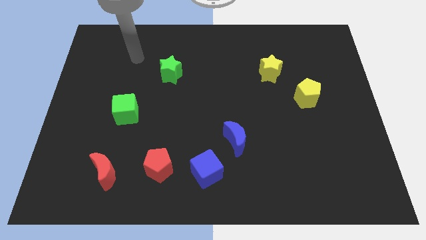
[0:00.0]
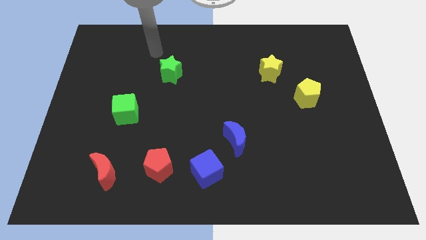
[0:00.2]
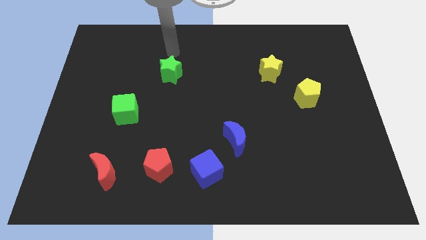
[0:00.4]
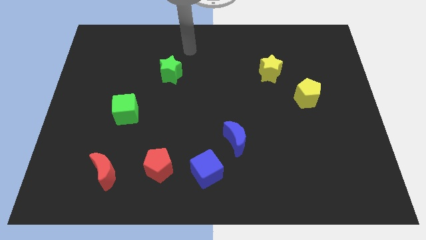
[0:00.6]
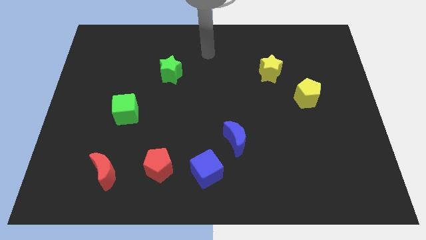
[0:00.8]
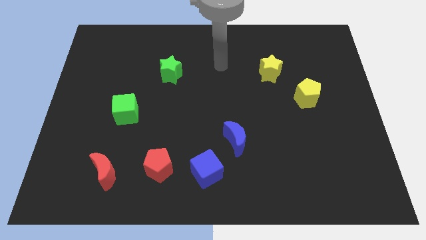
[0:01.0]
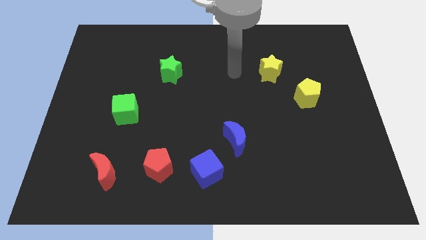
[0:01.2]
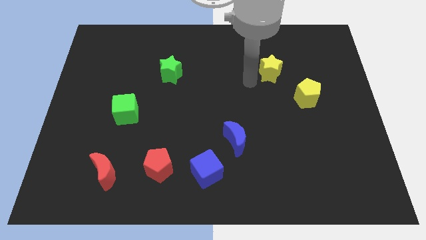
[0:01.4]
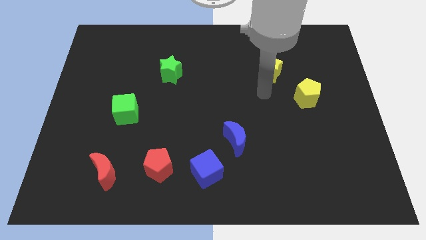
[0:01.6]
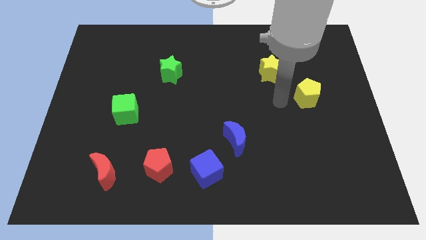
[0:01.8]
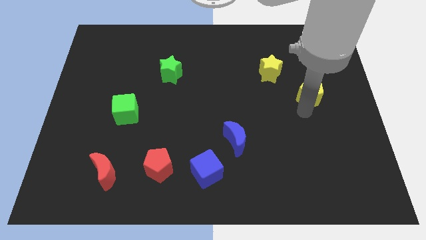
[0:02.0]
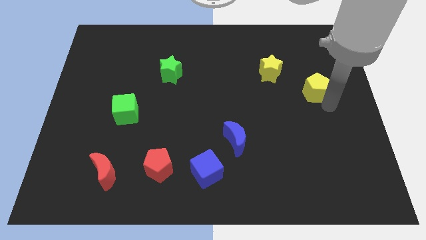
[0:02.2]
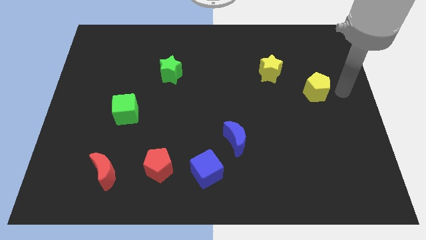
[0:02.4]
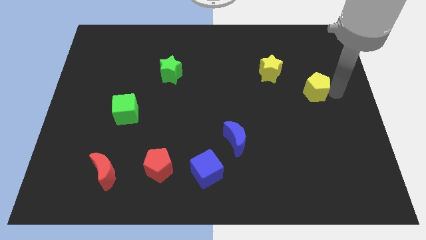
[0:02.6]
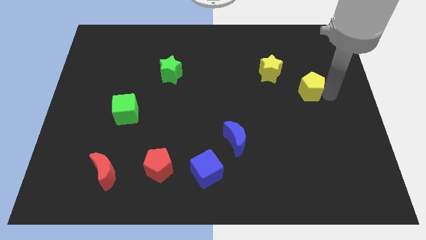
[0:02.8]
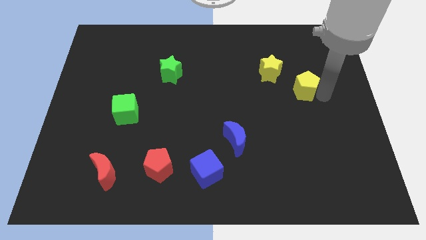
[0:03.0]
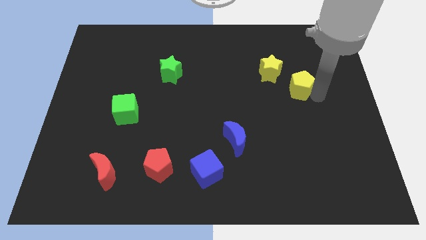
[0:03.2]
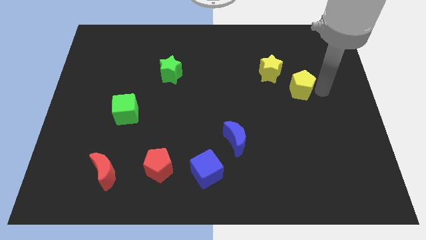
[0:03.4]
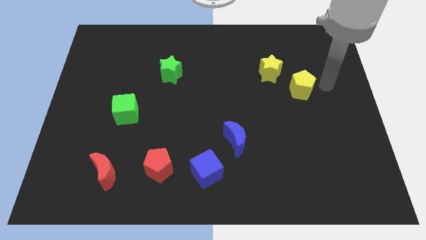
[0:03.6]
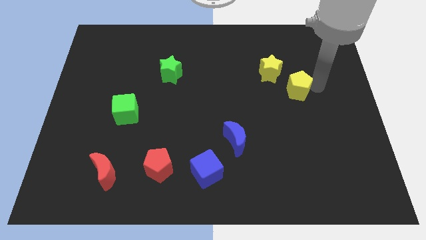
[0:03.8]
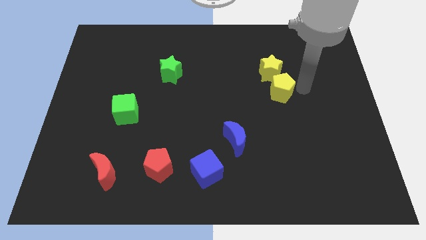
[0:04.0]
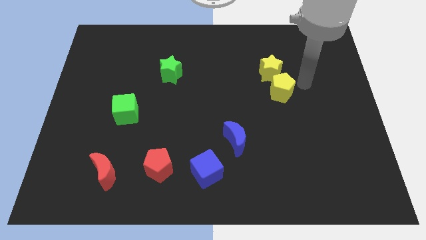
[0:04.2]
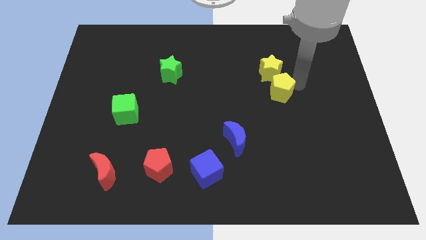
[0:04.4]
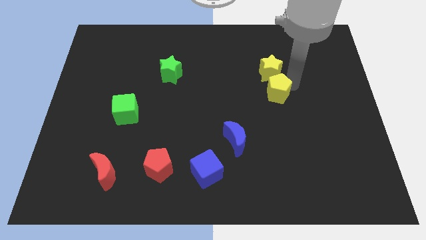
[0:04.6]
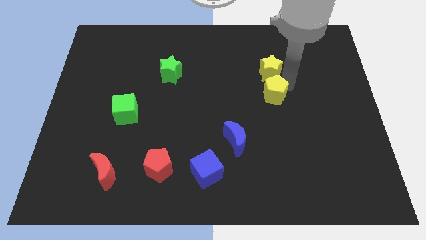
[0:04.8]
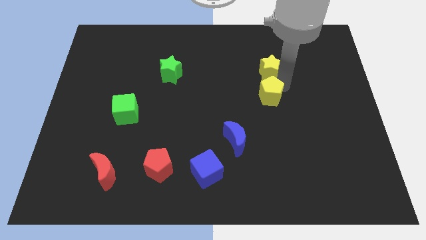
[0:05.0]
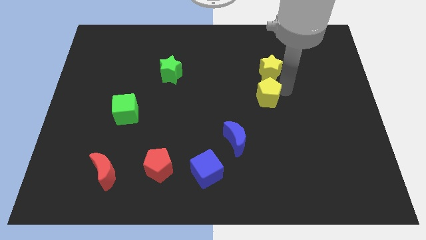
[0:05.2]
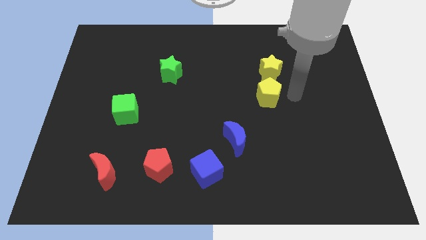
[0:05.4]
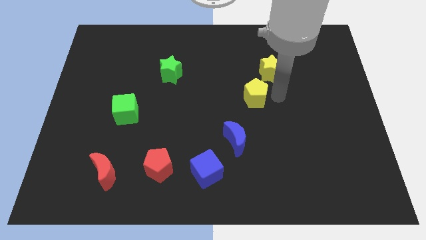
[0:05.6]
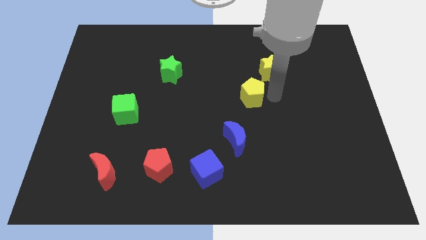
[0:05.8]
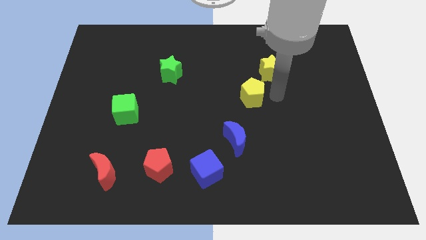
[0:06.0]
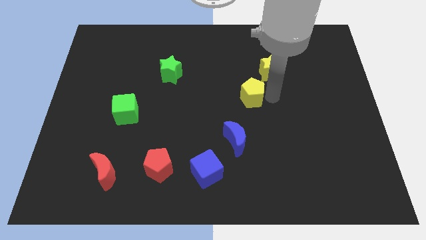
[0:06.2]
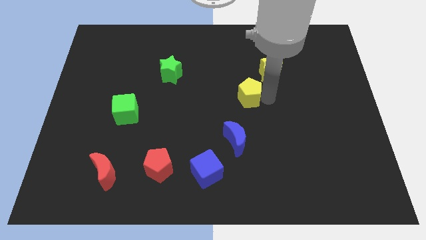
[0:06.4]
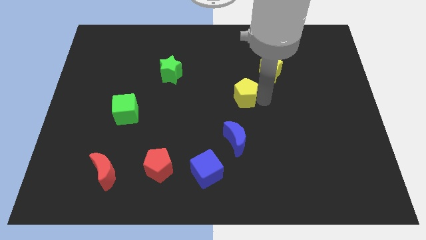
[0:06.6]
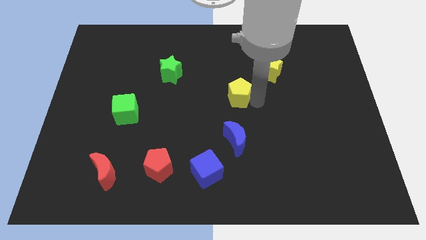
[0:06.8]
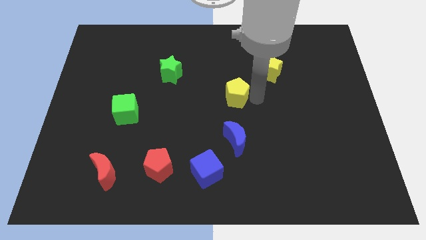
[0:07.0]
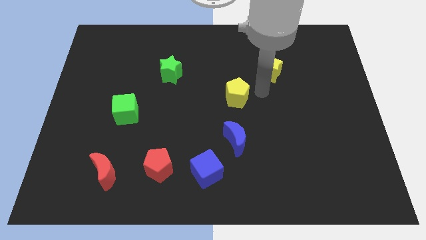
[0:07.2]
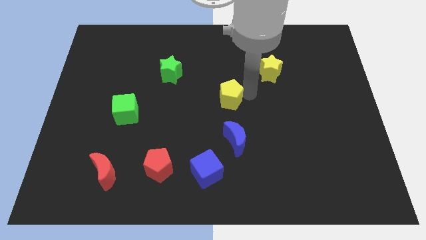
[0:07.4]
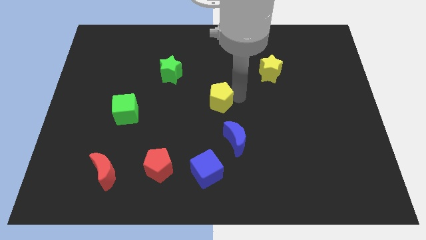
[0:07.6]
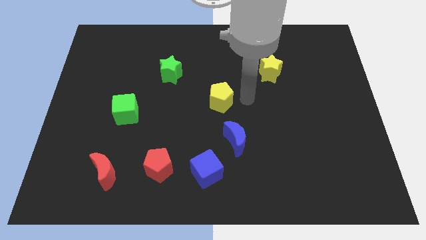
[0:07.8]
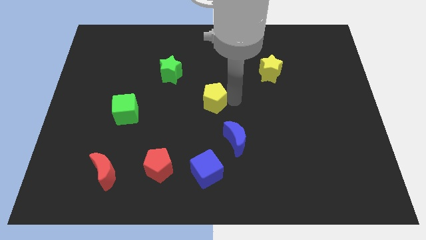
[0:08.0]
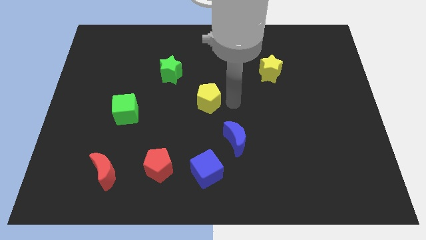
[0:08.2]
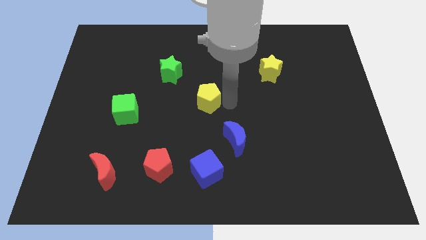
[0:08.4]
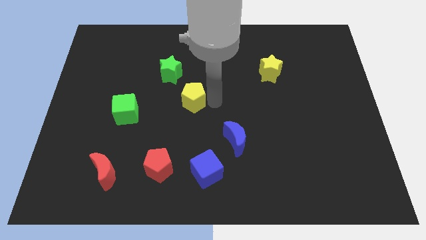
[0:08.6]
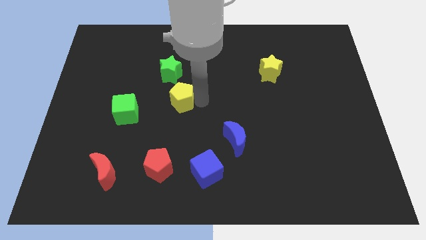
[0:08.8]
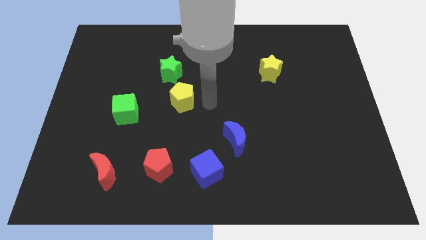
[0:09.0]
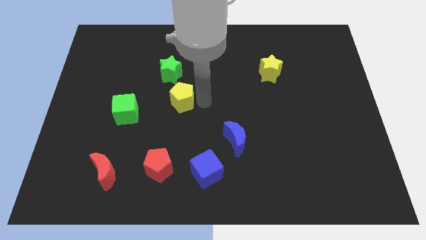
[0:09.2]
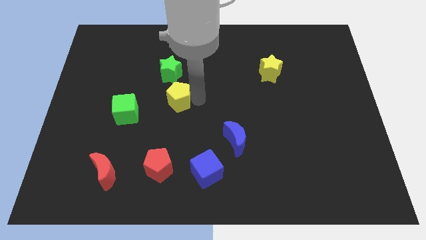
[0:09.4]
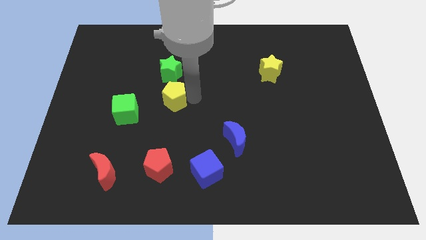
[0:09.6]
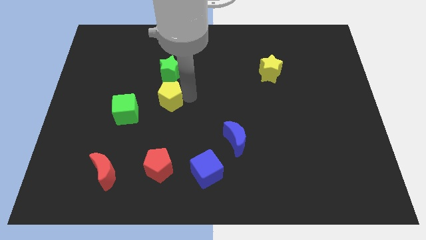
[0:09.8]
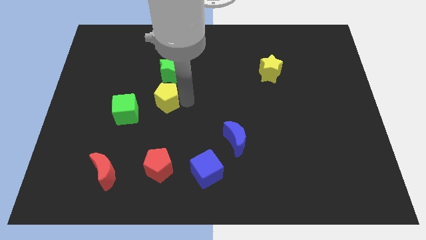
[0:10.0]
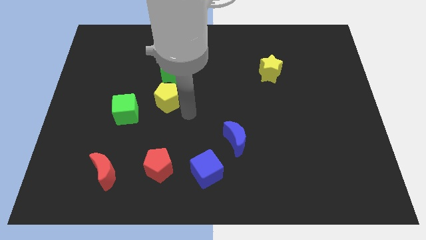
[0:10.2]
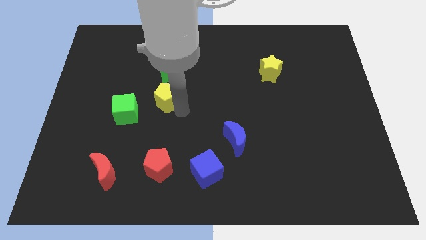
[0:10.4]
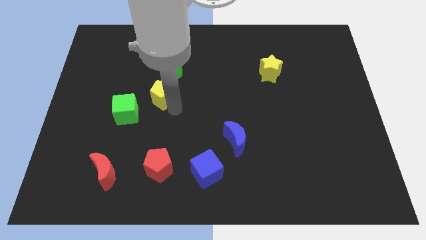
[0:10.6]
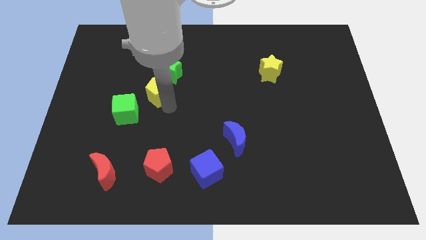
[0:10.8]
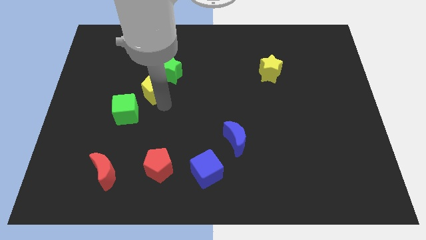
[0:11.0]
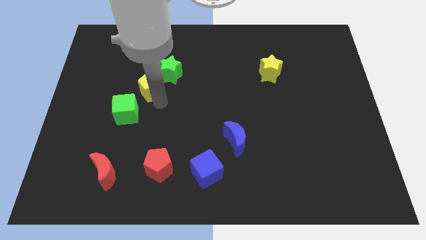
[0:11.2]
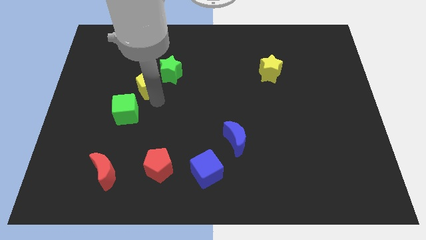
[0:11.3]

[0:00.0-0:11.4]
put the yellow pentagon to the left of the green star

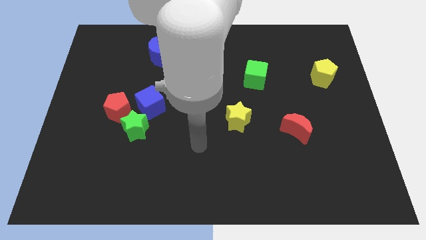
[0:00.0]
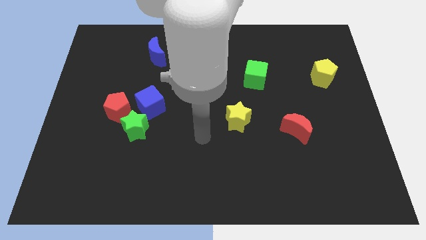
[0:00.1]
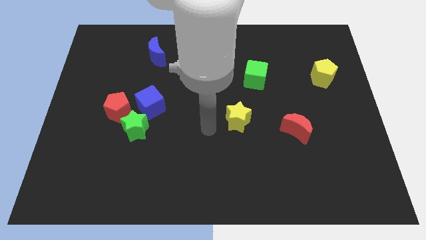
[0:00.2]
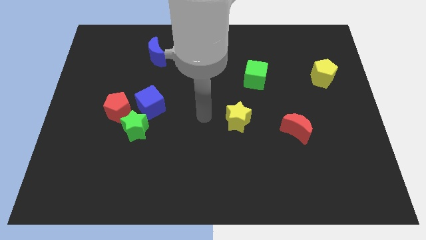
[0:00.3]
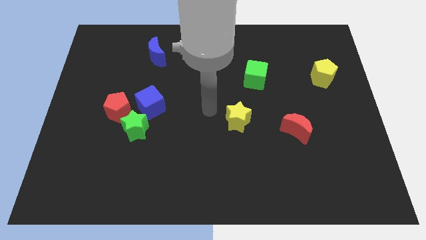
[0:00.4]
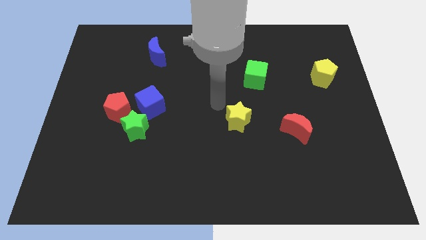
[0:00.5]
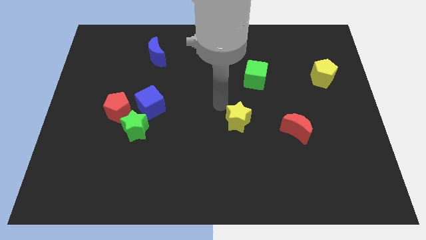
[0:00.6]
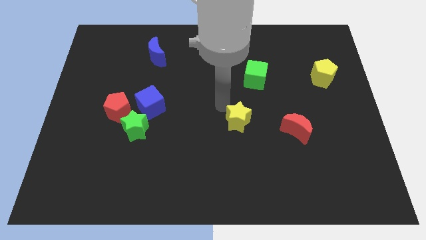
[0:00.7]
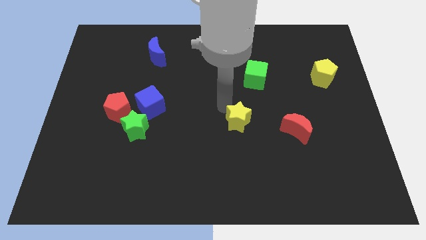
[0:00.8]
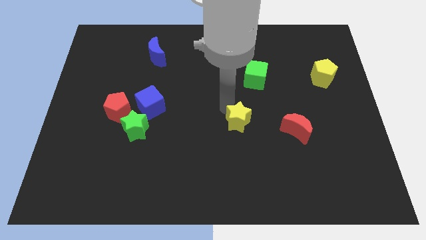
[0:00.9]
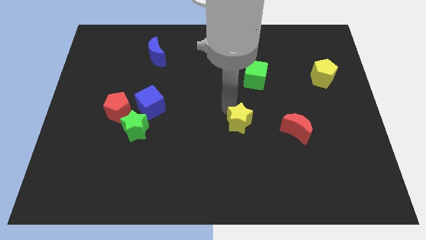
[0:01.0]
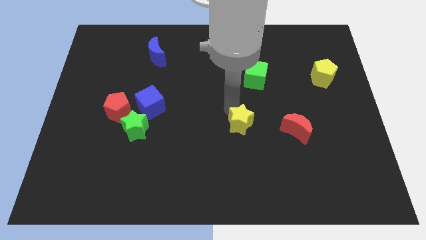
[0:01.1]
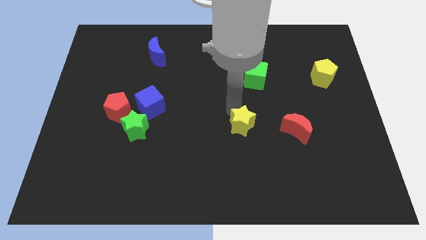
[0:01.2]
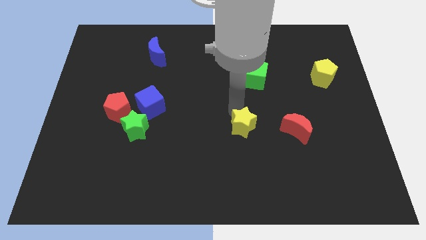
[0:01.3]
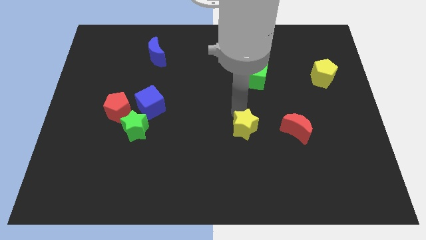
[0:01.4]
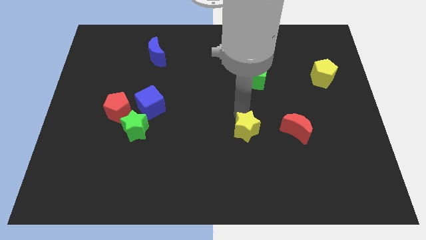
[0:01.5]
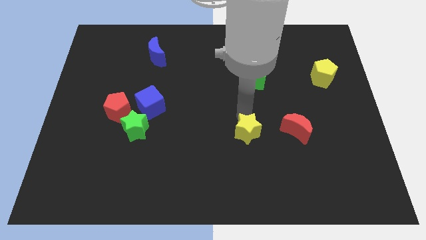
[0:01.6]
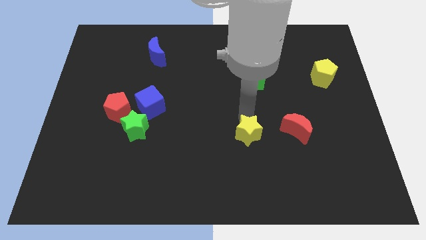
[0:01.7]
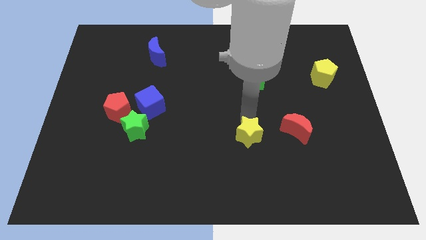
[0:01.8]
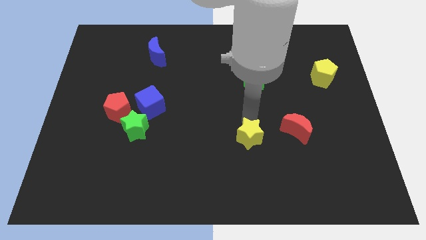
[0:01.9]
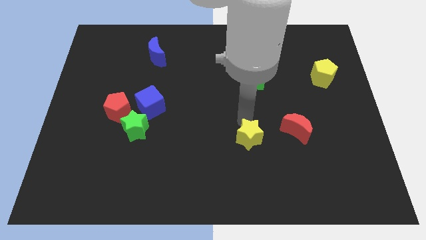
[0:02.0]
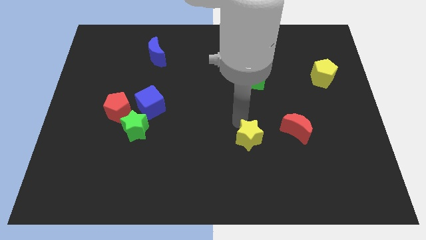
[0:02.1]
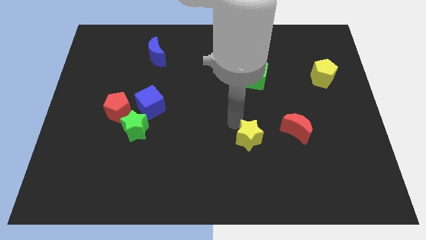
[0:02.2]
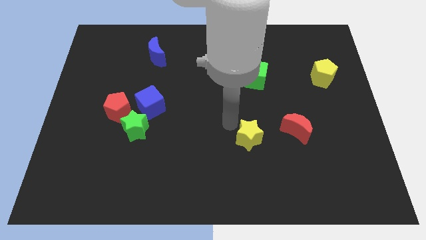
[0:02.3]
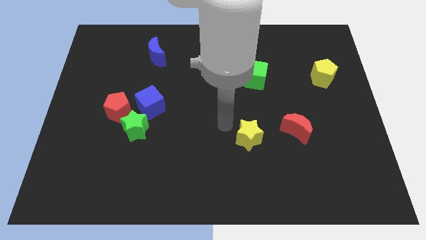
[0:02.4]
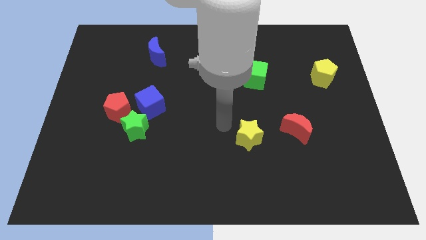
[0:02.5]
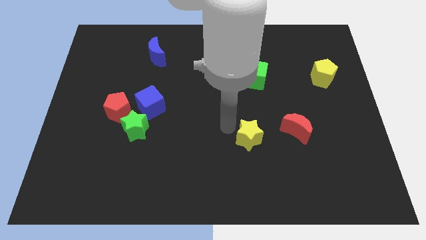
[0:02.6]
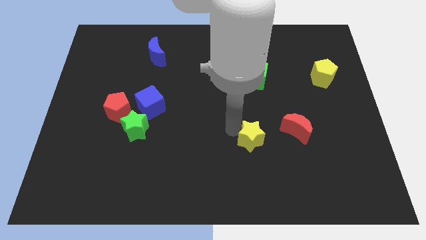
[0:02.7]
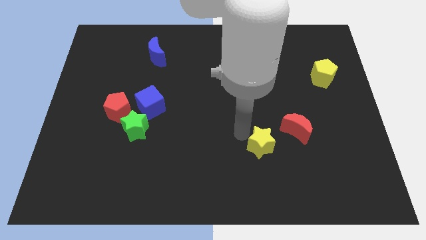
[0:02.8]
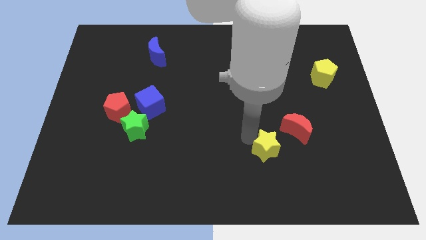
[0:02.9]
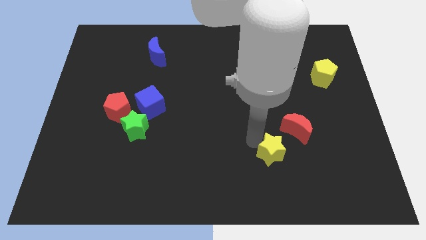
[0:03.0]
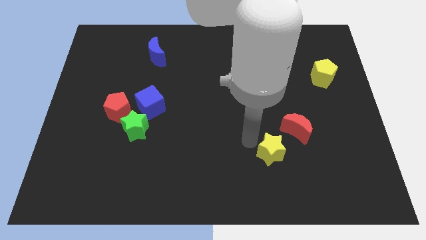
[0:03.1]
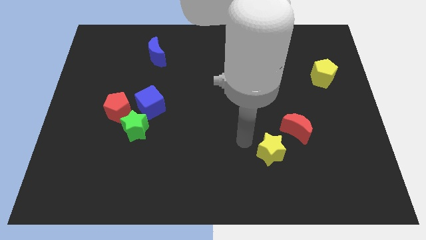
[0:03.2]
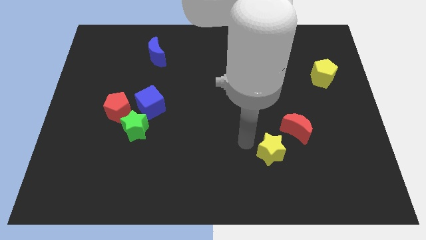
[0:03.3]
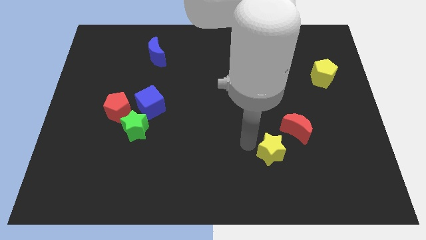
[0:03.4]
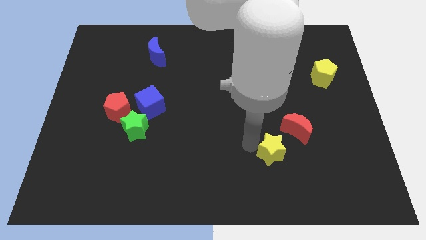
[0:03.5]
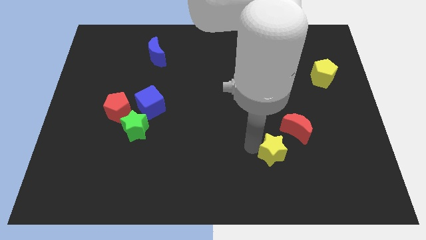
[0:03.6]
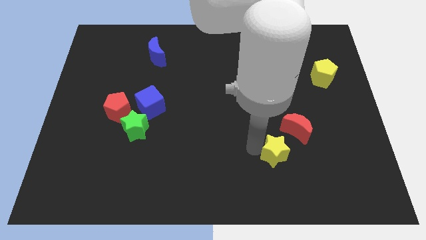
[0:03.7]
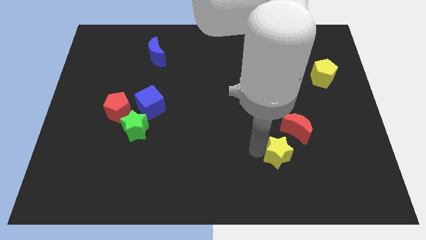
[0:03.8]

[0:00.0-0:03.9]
put the yellow star below the red moon
